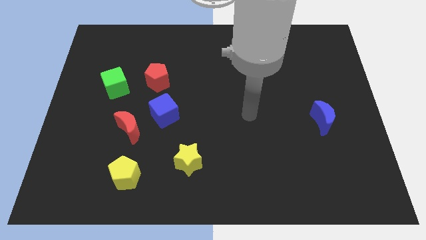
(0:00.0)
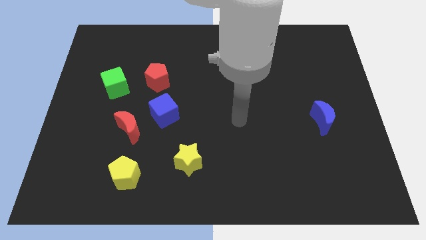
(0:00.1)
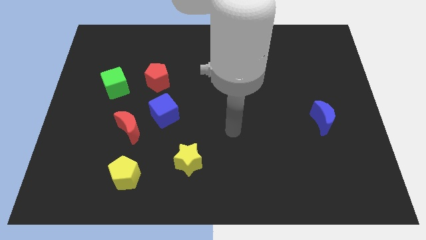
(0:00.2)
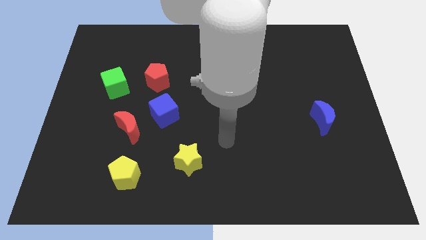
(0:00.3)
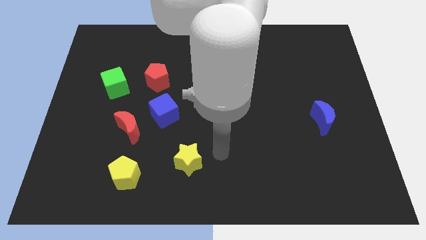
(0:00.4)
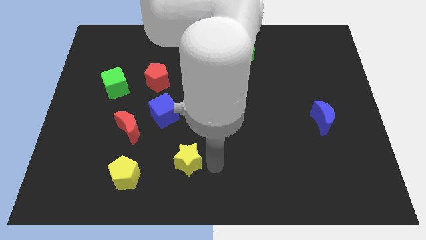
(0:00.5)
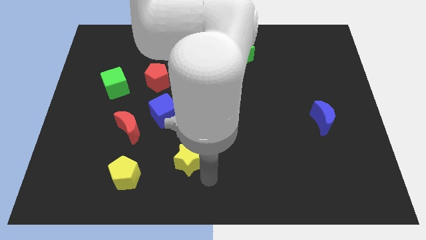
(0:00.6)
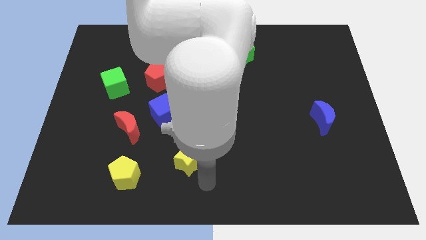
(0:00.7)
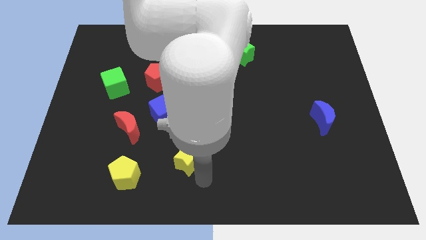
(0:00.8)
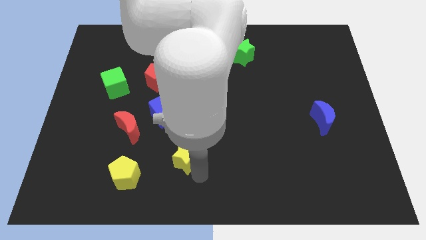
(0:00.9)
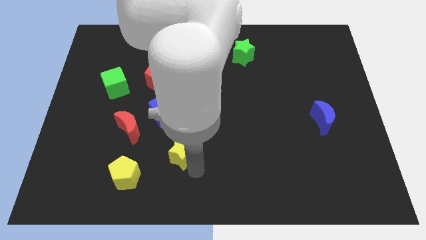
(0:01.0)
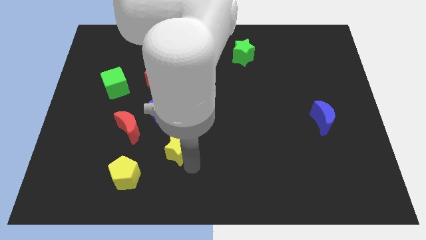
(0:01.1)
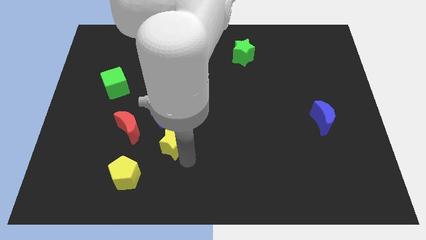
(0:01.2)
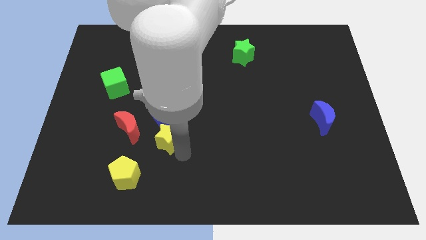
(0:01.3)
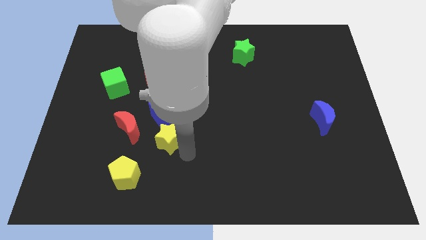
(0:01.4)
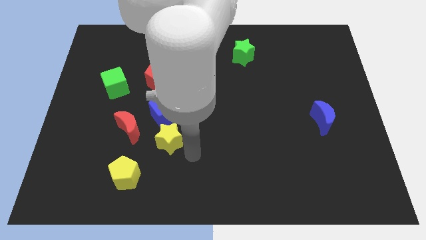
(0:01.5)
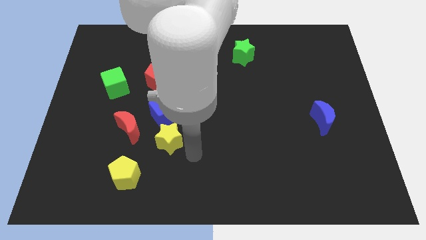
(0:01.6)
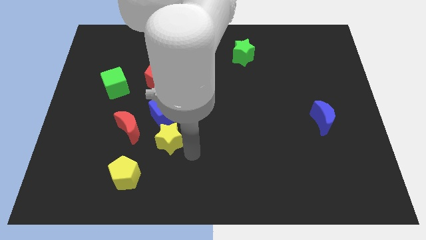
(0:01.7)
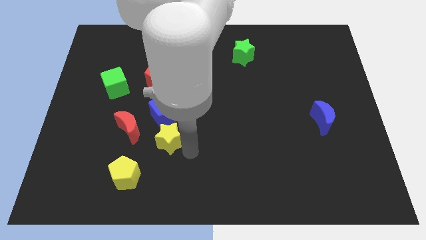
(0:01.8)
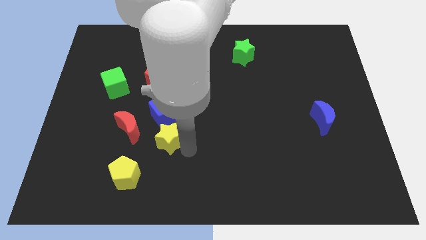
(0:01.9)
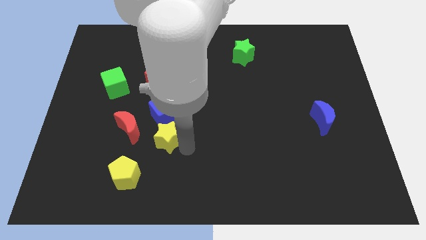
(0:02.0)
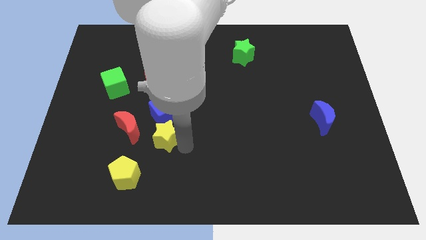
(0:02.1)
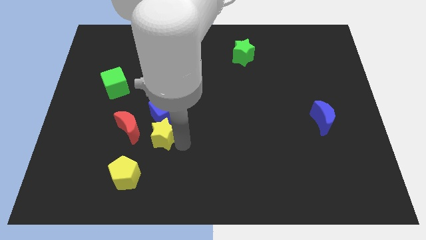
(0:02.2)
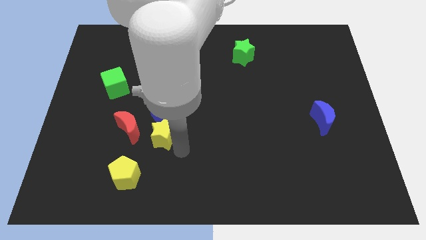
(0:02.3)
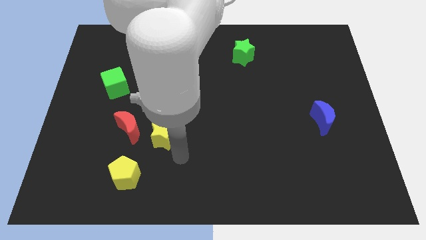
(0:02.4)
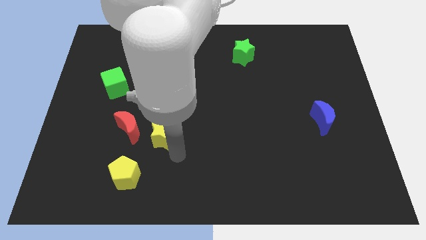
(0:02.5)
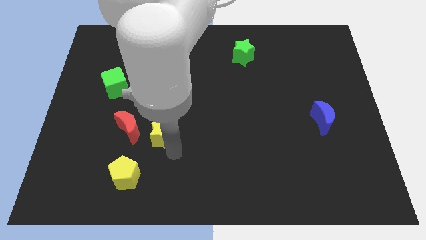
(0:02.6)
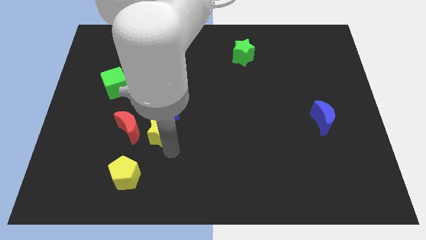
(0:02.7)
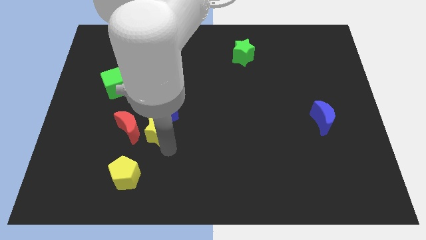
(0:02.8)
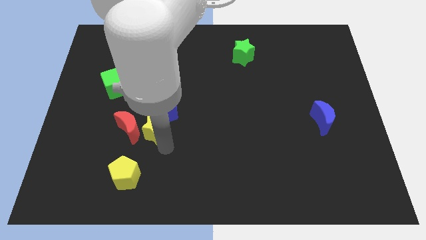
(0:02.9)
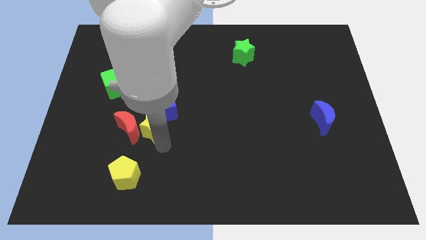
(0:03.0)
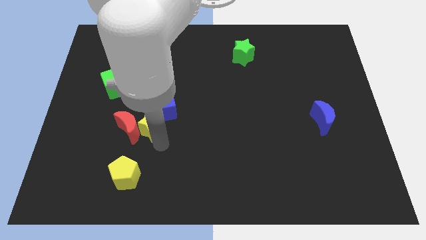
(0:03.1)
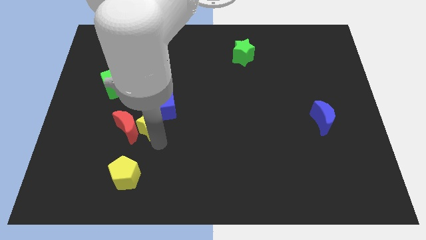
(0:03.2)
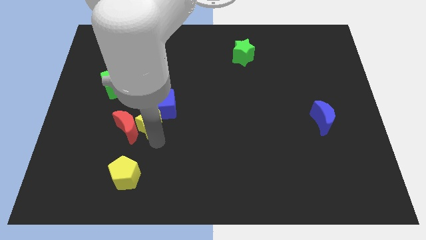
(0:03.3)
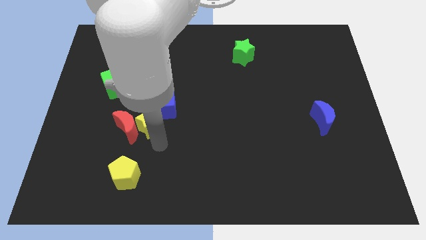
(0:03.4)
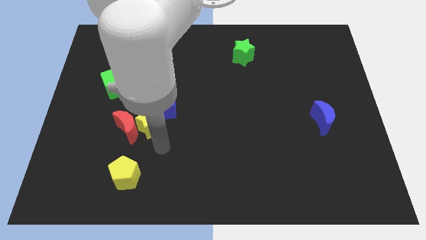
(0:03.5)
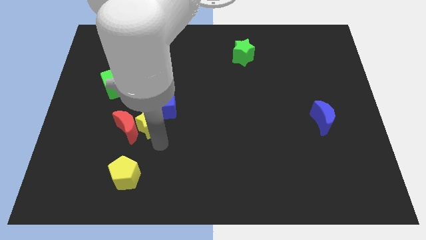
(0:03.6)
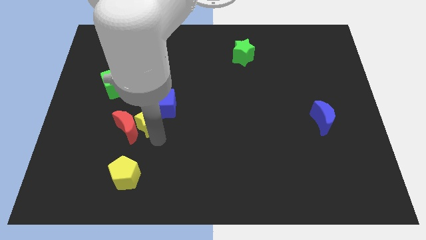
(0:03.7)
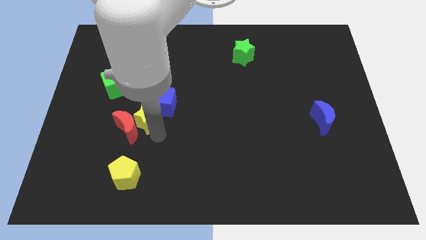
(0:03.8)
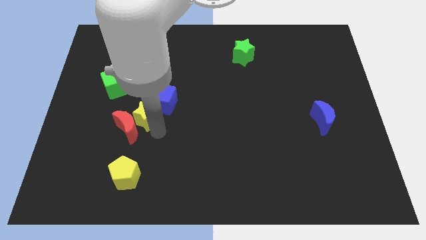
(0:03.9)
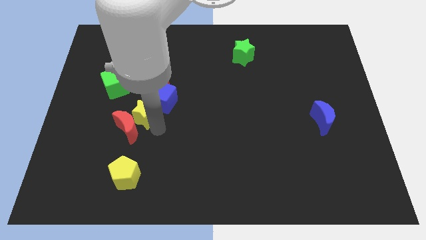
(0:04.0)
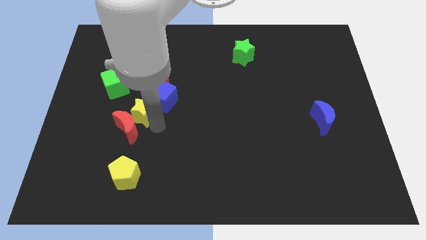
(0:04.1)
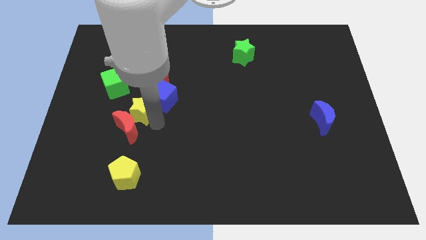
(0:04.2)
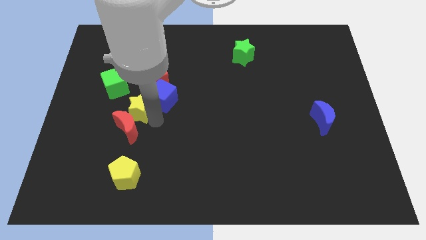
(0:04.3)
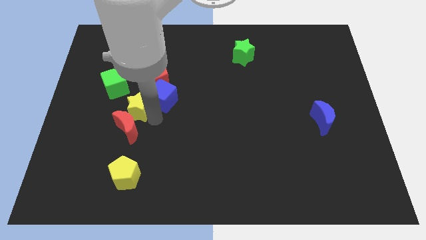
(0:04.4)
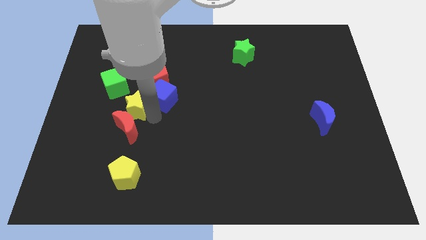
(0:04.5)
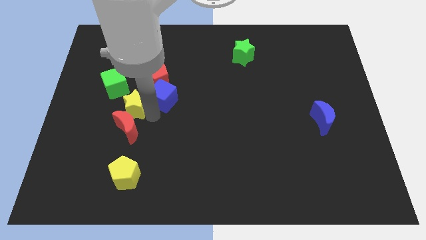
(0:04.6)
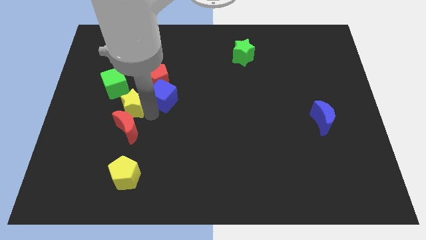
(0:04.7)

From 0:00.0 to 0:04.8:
push the yellow star upwards and to the left diagonally

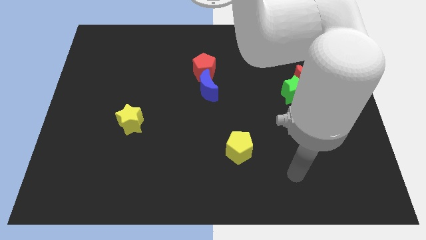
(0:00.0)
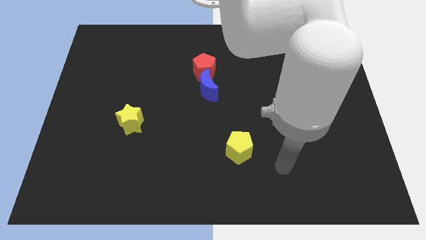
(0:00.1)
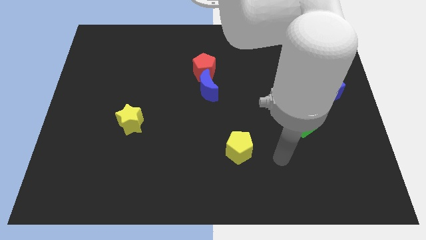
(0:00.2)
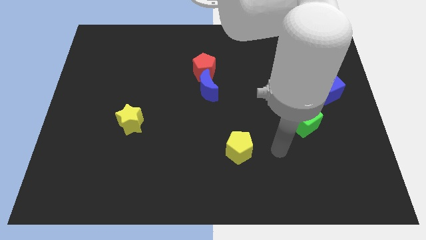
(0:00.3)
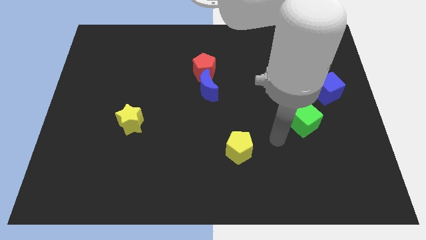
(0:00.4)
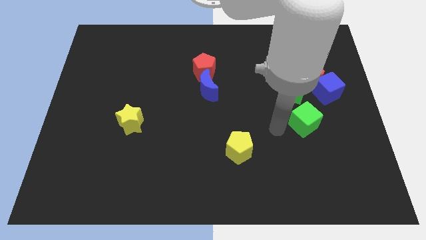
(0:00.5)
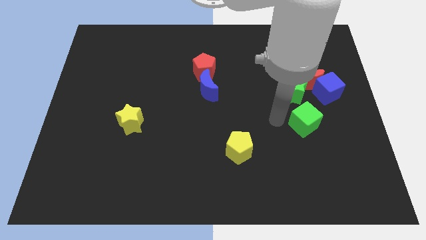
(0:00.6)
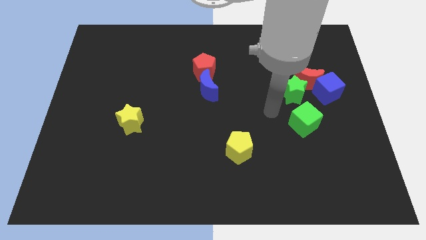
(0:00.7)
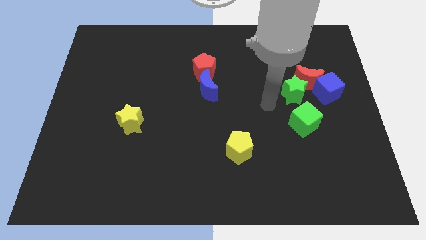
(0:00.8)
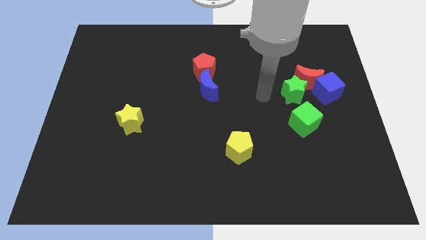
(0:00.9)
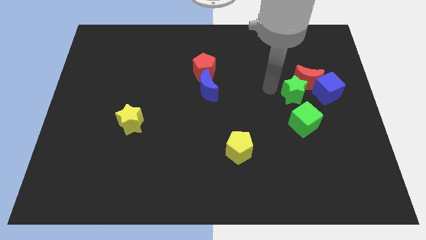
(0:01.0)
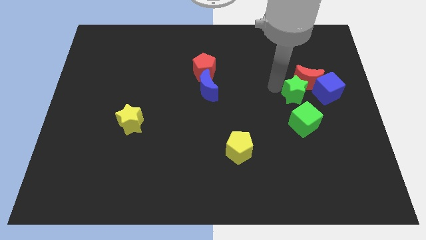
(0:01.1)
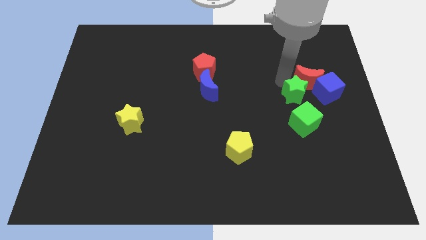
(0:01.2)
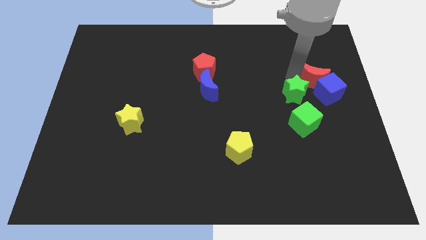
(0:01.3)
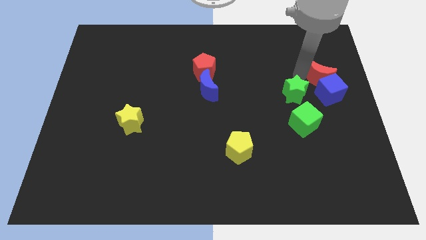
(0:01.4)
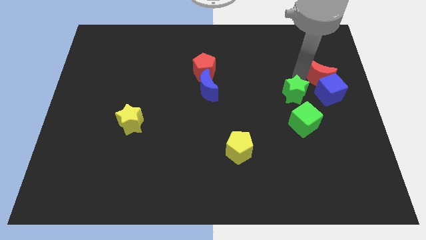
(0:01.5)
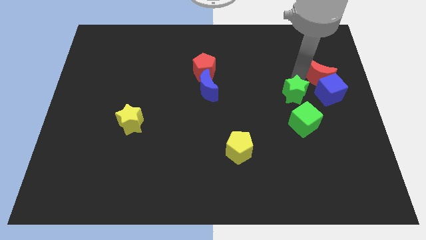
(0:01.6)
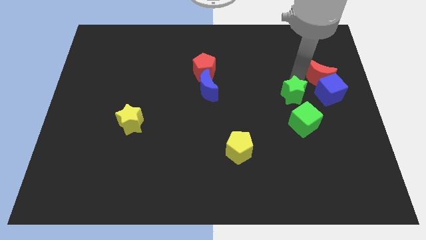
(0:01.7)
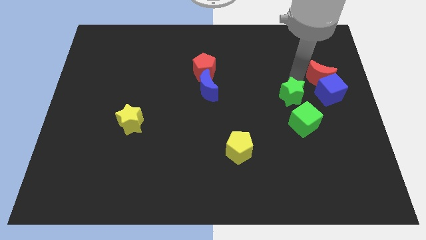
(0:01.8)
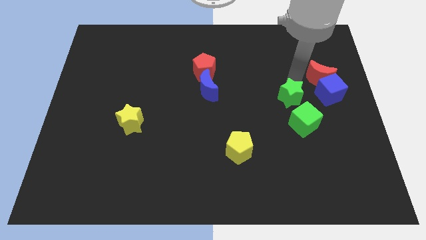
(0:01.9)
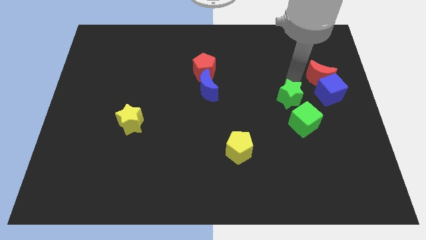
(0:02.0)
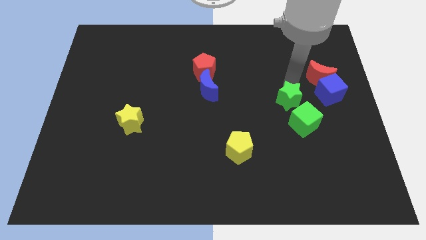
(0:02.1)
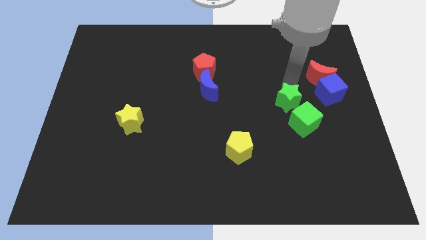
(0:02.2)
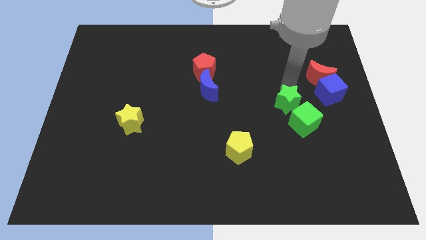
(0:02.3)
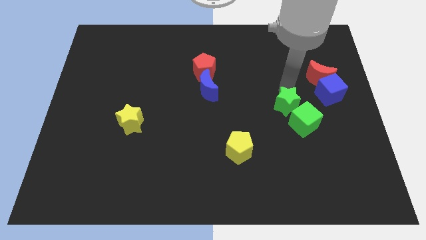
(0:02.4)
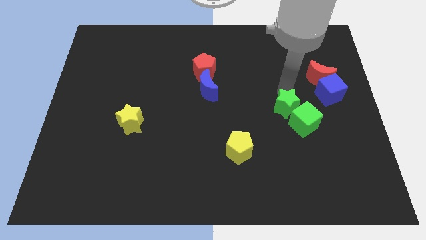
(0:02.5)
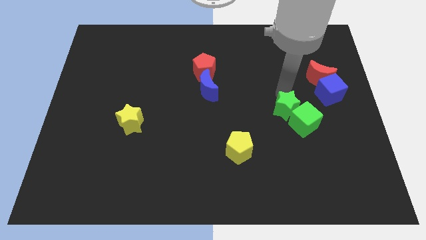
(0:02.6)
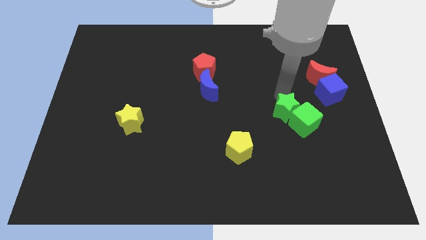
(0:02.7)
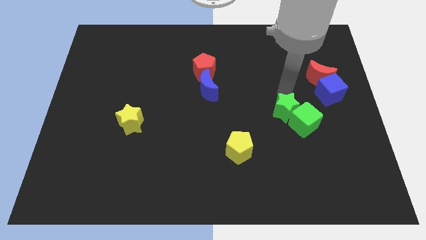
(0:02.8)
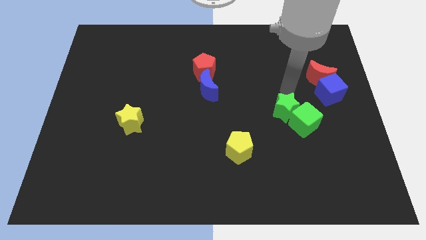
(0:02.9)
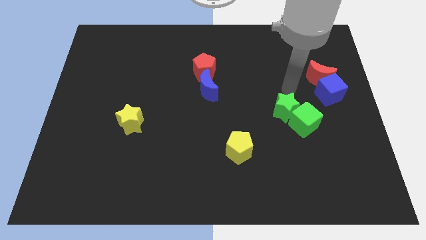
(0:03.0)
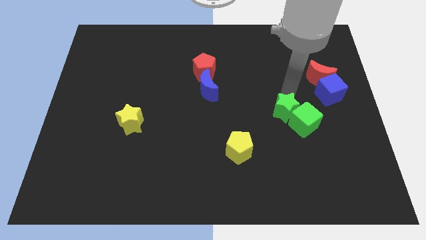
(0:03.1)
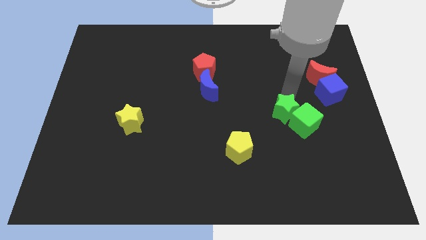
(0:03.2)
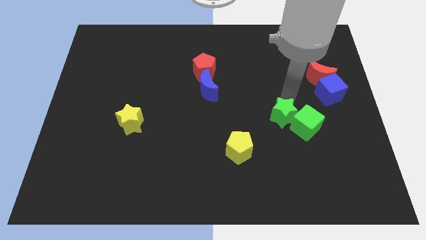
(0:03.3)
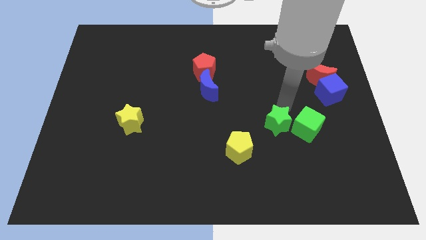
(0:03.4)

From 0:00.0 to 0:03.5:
push the green star slightly downwards
